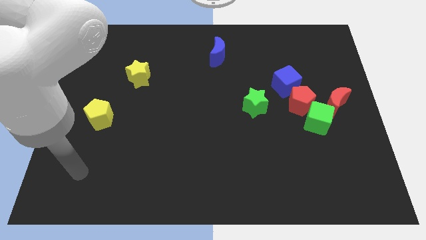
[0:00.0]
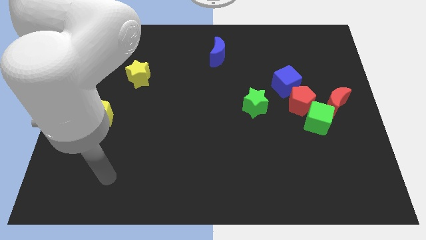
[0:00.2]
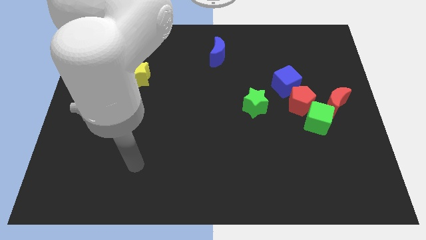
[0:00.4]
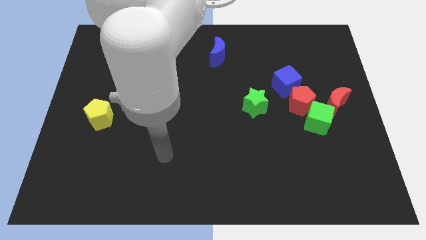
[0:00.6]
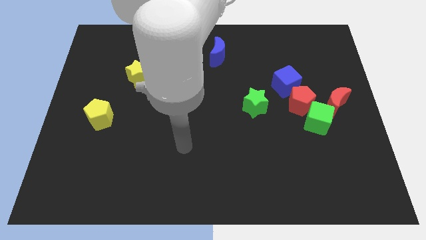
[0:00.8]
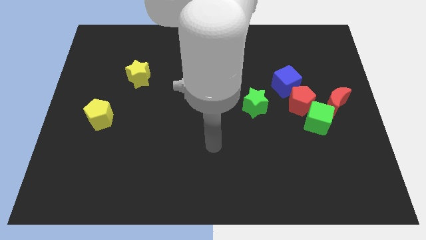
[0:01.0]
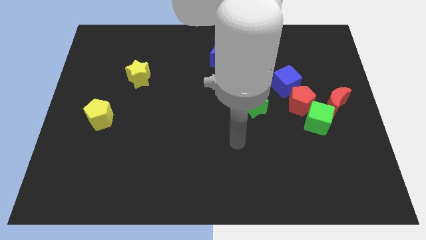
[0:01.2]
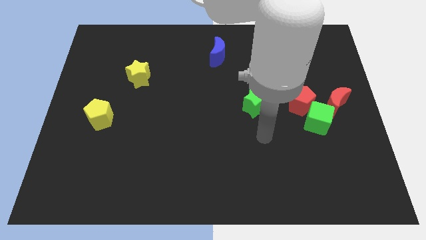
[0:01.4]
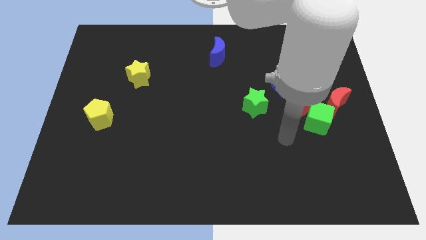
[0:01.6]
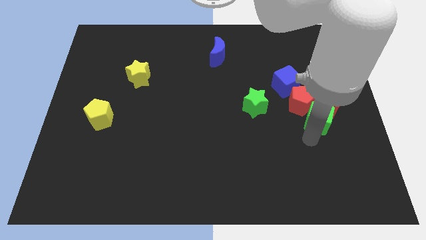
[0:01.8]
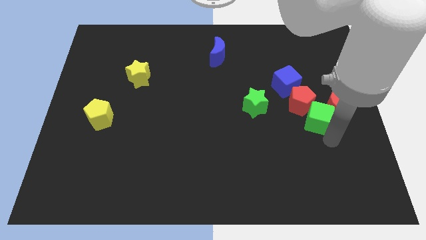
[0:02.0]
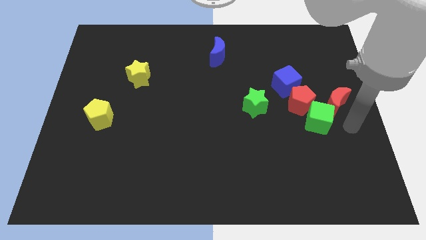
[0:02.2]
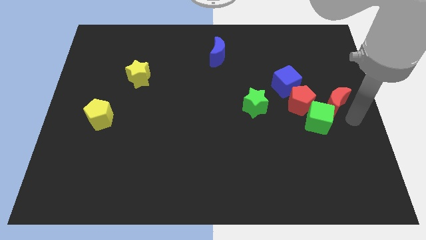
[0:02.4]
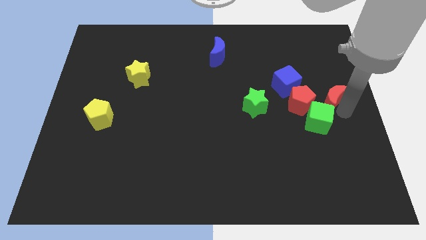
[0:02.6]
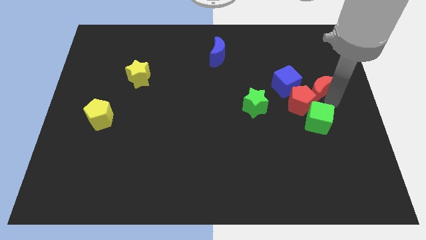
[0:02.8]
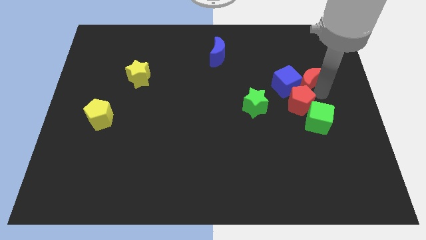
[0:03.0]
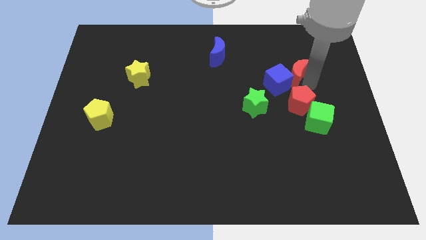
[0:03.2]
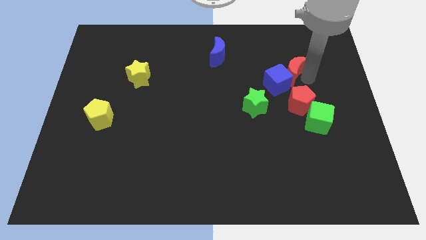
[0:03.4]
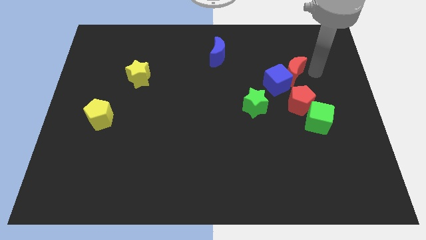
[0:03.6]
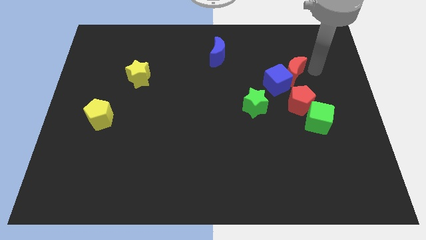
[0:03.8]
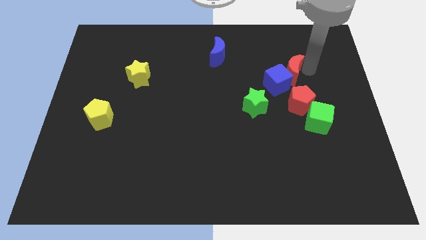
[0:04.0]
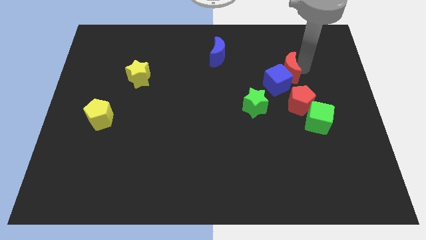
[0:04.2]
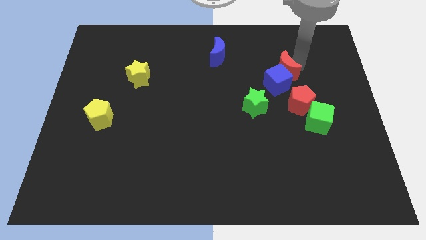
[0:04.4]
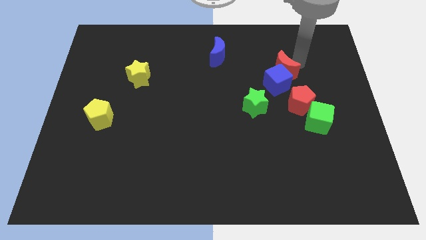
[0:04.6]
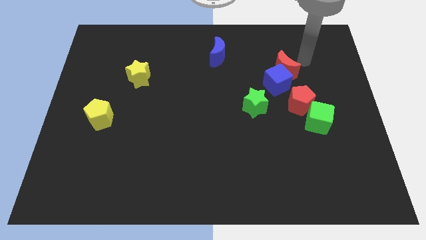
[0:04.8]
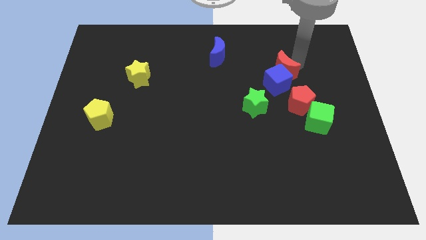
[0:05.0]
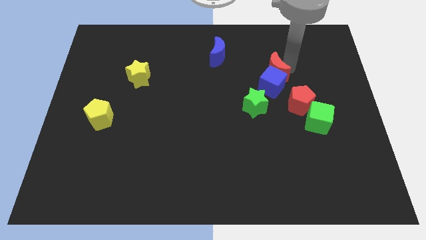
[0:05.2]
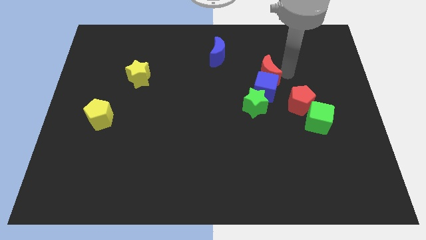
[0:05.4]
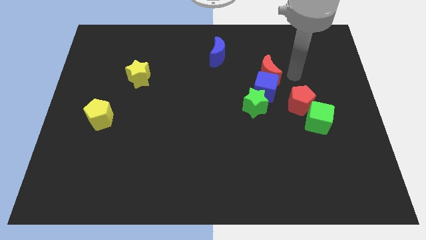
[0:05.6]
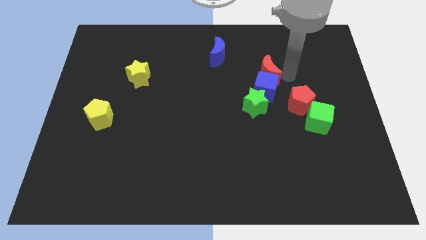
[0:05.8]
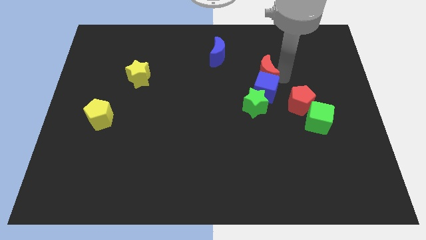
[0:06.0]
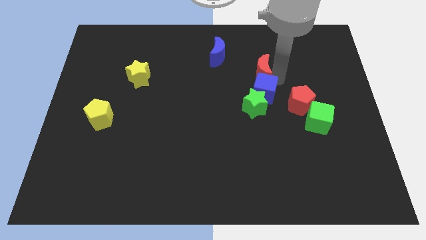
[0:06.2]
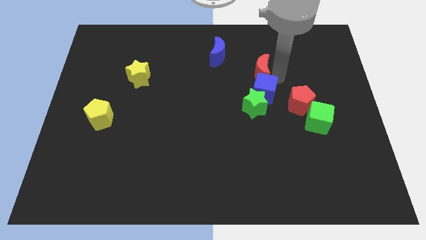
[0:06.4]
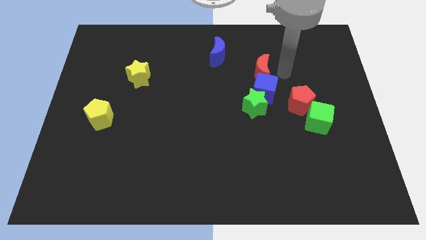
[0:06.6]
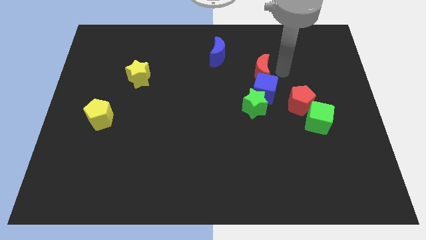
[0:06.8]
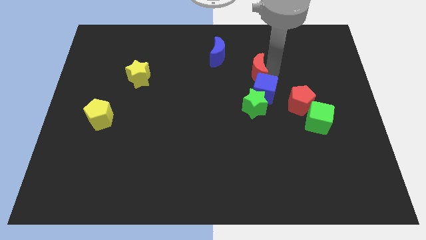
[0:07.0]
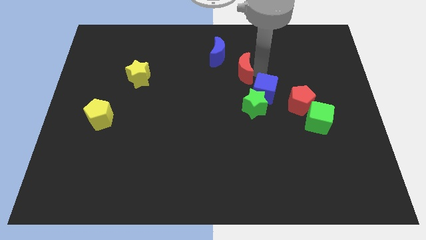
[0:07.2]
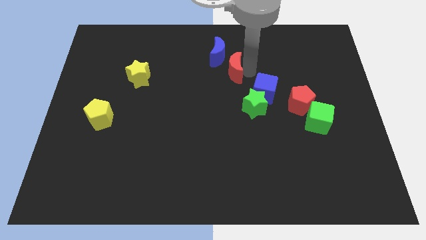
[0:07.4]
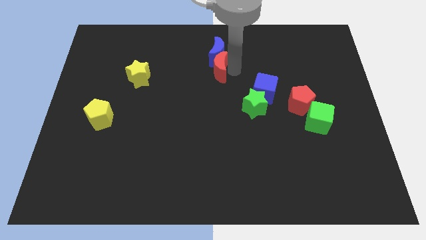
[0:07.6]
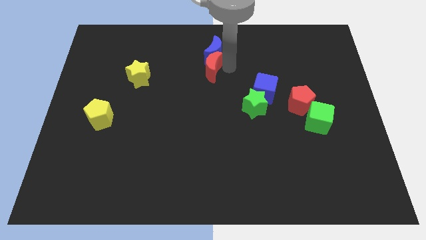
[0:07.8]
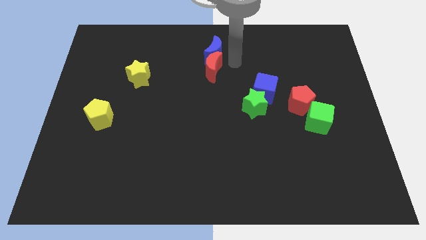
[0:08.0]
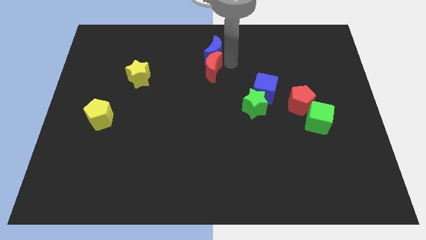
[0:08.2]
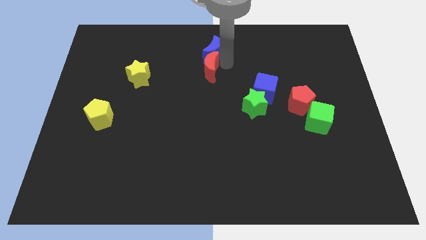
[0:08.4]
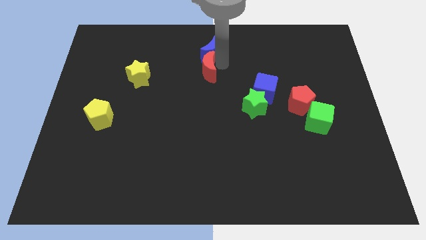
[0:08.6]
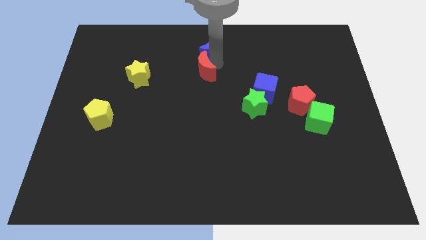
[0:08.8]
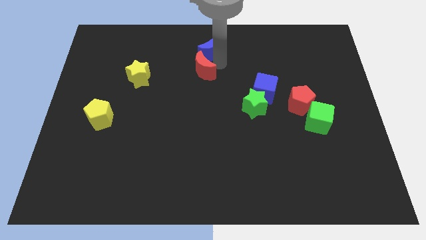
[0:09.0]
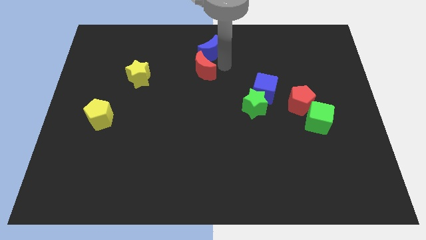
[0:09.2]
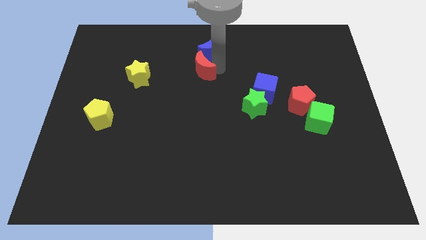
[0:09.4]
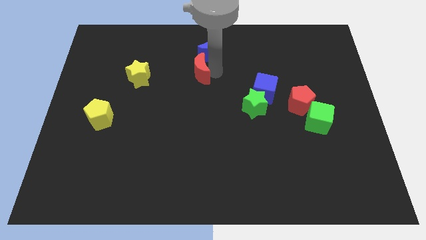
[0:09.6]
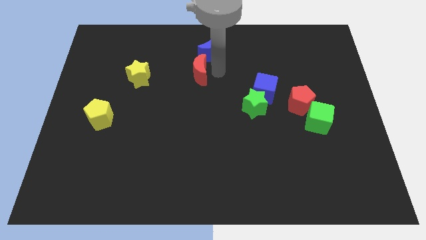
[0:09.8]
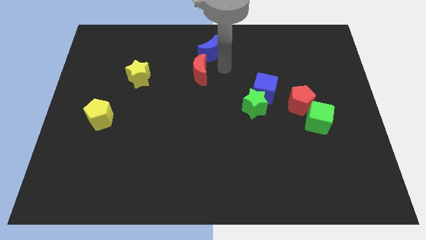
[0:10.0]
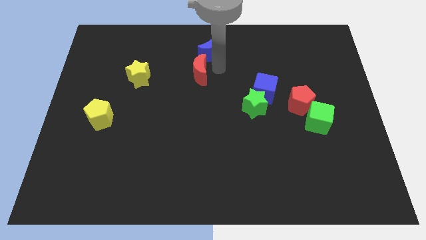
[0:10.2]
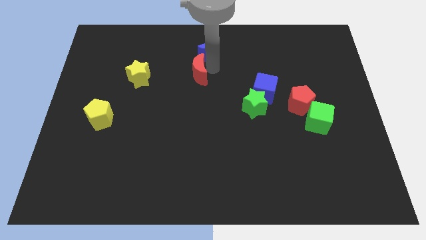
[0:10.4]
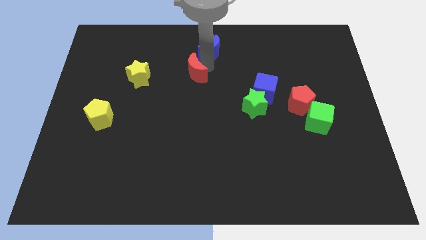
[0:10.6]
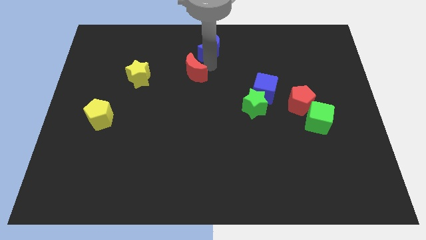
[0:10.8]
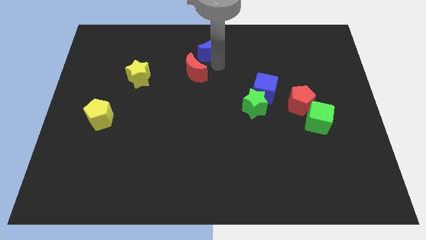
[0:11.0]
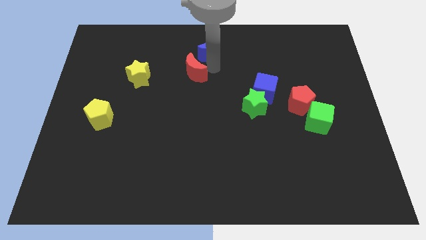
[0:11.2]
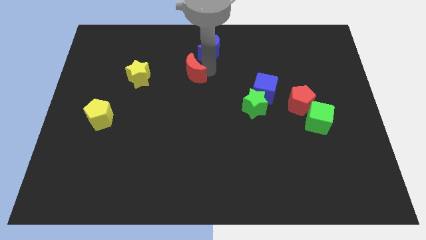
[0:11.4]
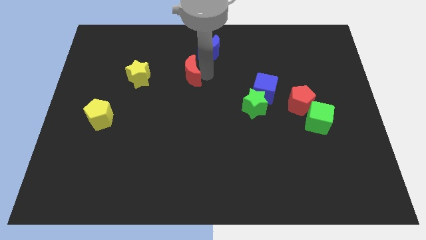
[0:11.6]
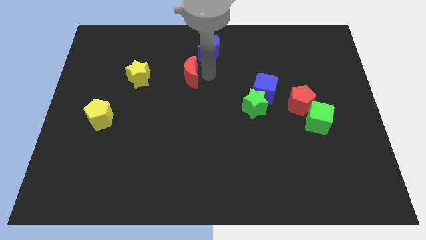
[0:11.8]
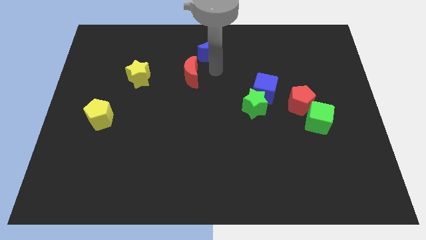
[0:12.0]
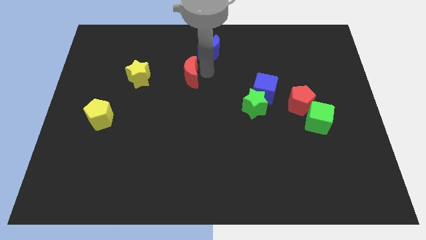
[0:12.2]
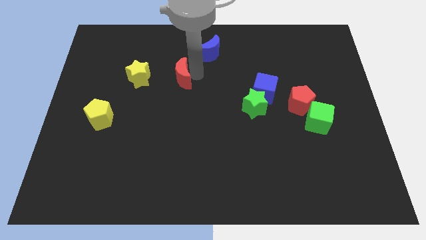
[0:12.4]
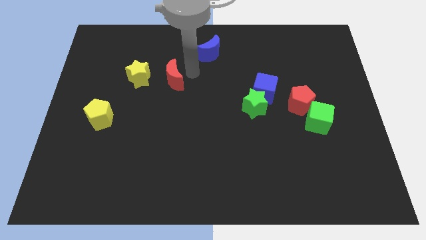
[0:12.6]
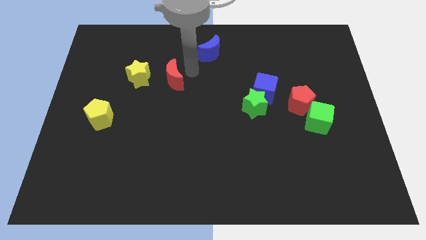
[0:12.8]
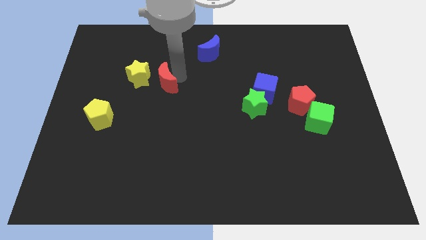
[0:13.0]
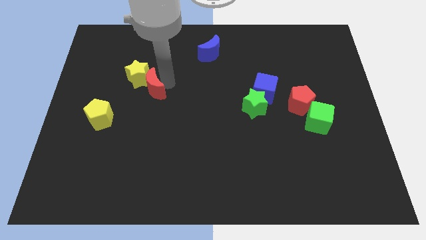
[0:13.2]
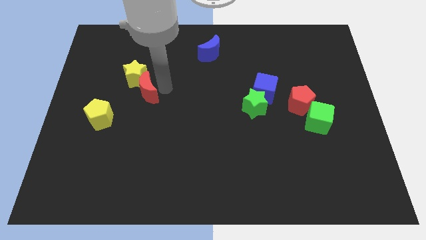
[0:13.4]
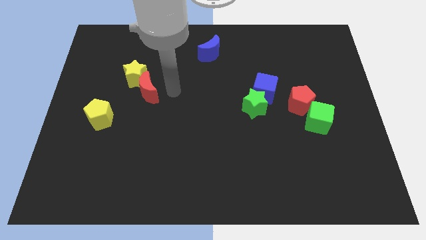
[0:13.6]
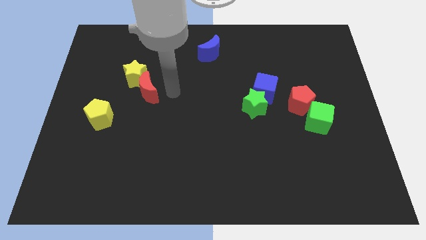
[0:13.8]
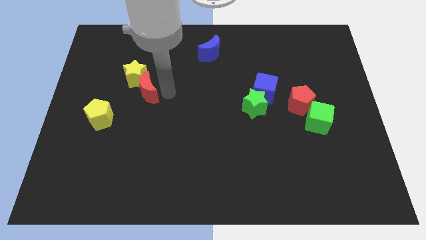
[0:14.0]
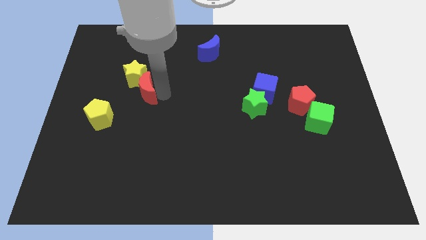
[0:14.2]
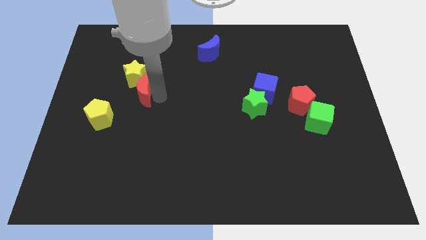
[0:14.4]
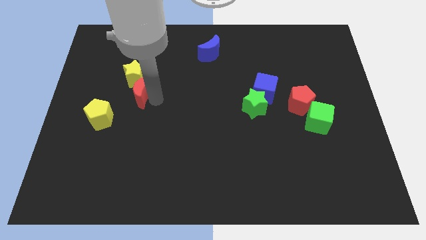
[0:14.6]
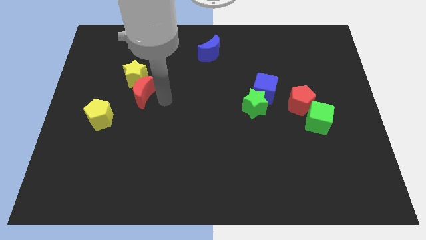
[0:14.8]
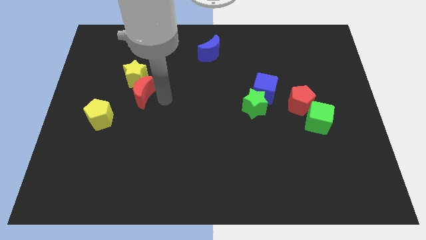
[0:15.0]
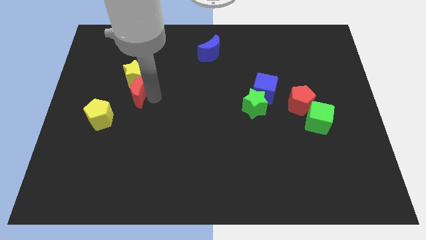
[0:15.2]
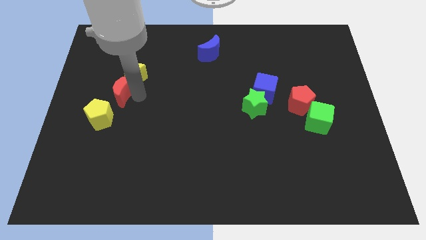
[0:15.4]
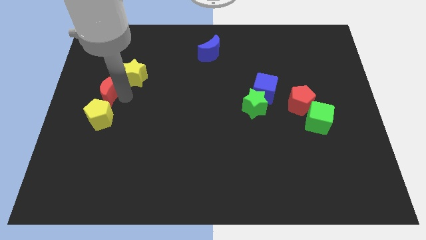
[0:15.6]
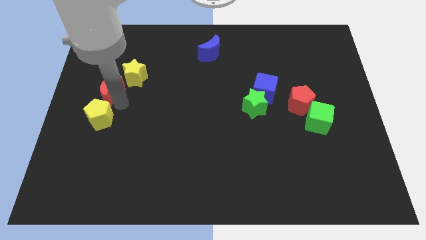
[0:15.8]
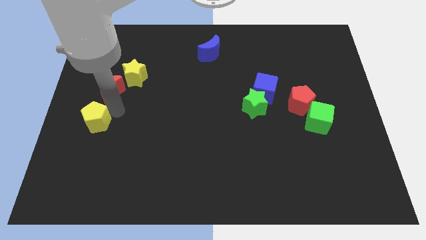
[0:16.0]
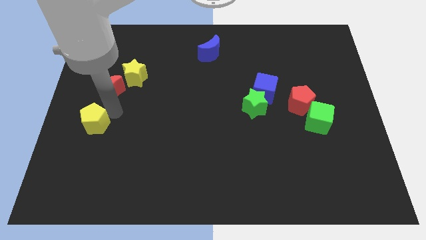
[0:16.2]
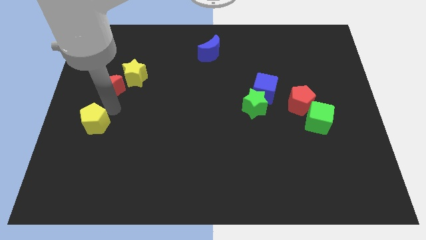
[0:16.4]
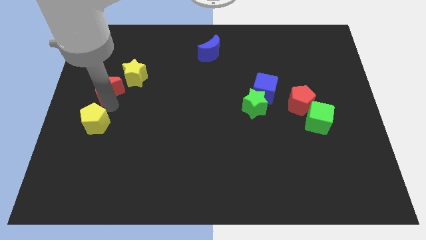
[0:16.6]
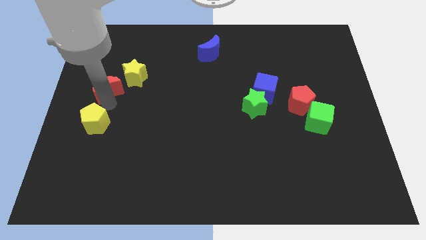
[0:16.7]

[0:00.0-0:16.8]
move the red moon to the left side of the yellow star
